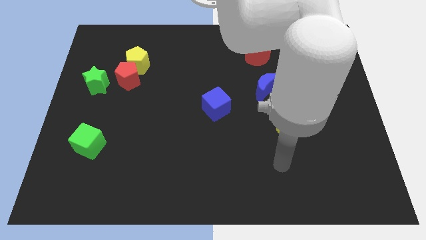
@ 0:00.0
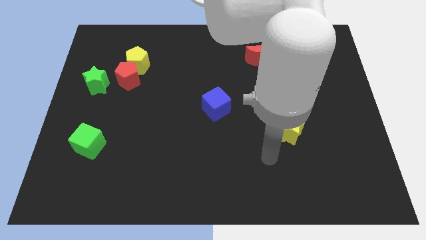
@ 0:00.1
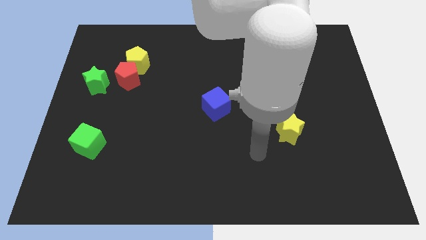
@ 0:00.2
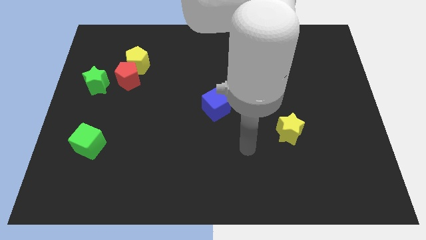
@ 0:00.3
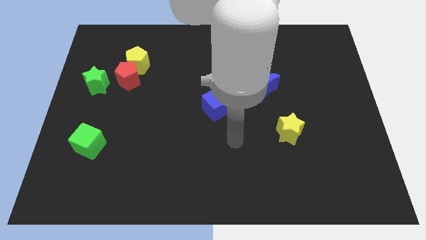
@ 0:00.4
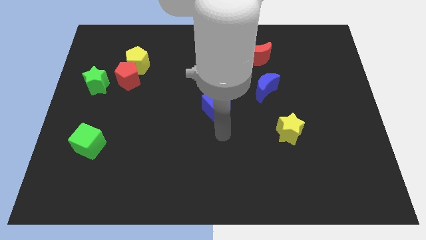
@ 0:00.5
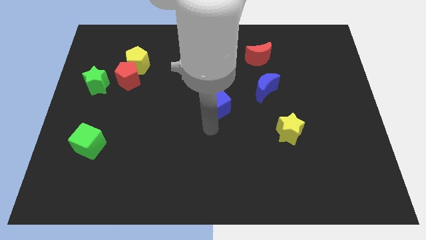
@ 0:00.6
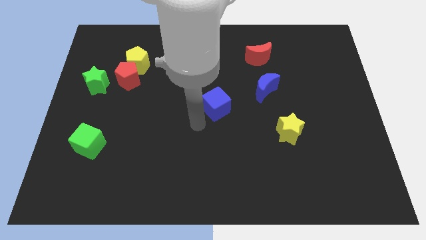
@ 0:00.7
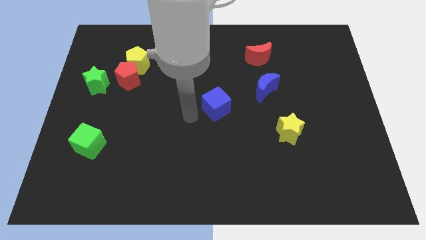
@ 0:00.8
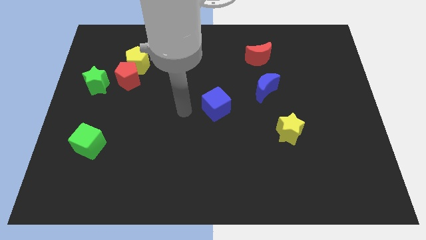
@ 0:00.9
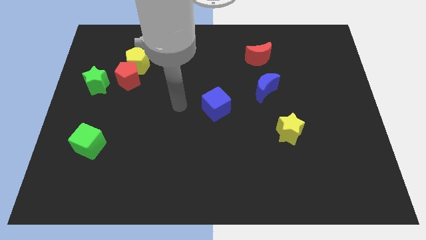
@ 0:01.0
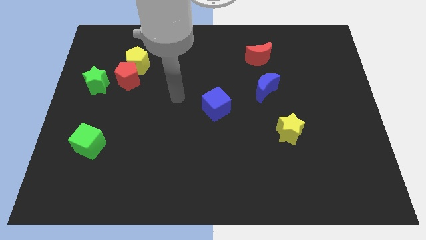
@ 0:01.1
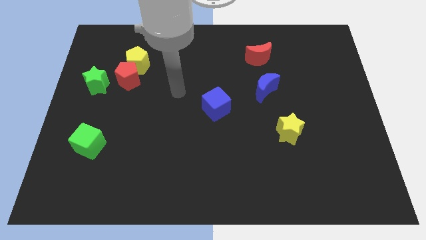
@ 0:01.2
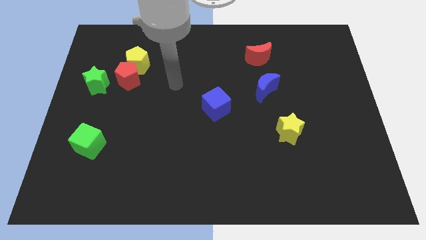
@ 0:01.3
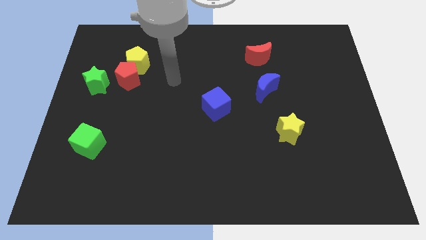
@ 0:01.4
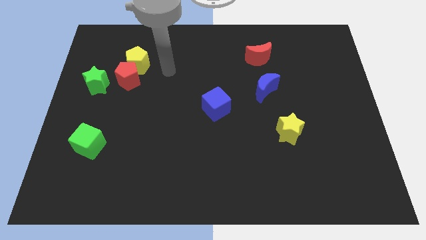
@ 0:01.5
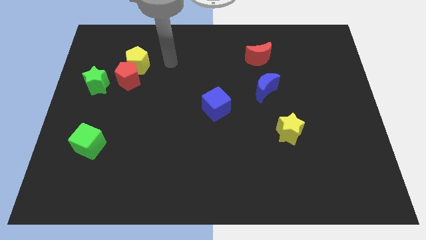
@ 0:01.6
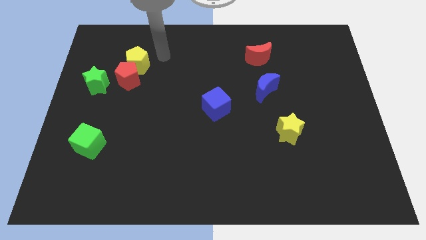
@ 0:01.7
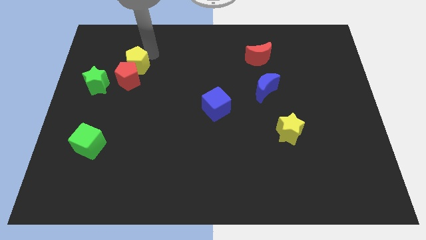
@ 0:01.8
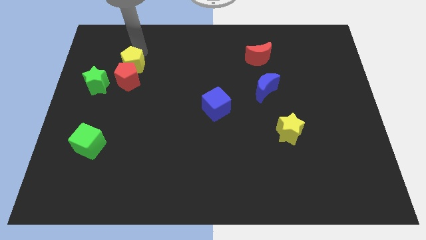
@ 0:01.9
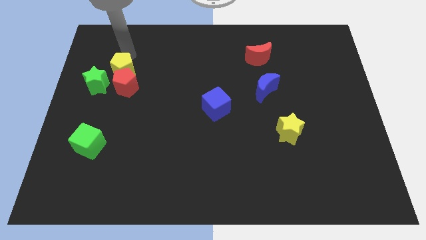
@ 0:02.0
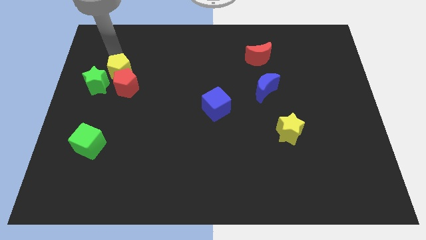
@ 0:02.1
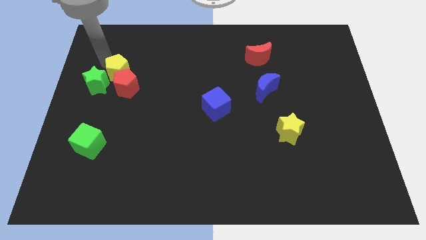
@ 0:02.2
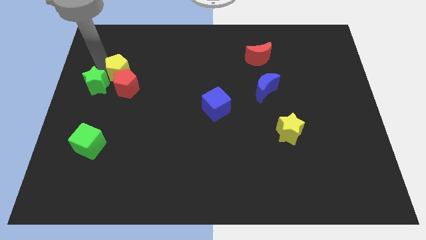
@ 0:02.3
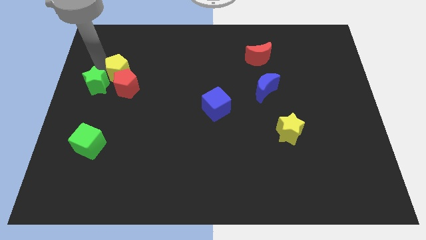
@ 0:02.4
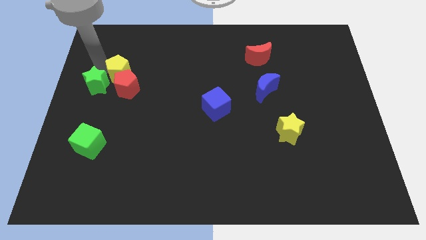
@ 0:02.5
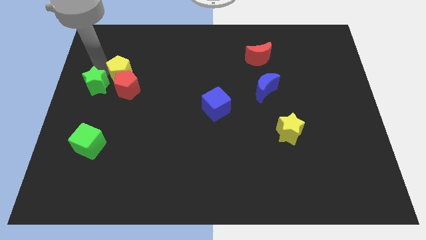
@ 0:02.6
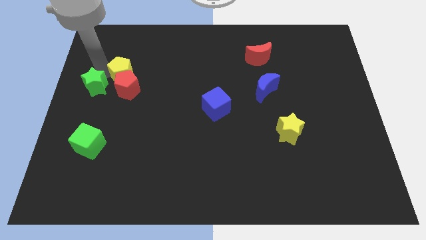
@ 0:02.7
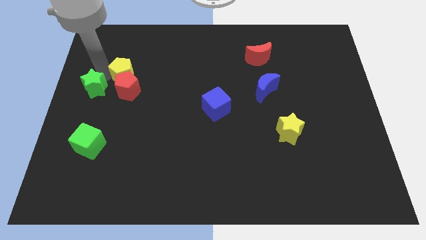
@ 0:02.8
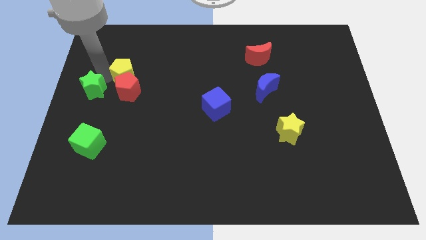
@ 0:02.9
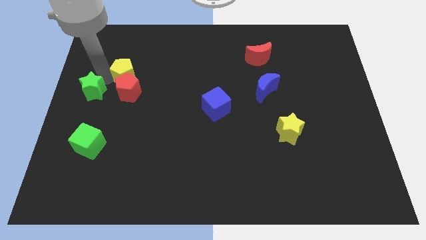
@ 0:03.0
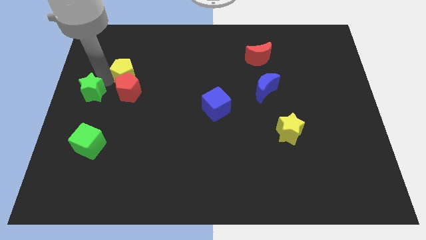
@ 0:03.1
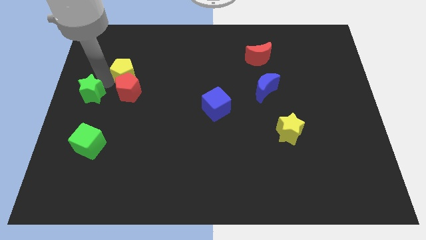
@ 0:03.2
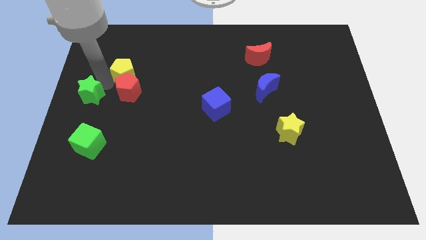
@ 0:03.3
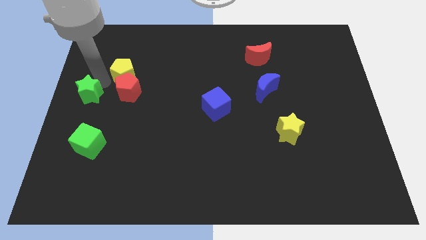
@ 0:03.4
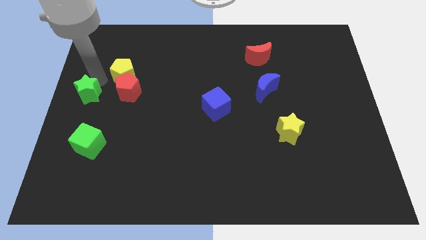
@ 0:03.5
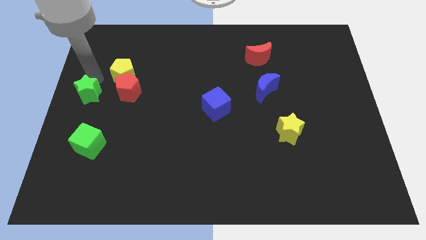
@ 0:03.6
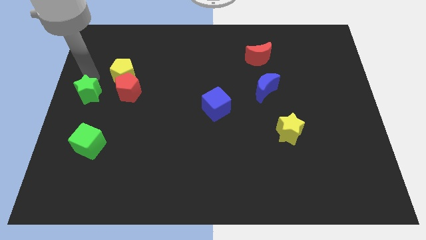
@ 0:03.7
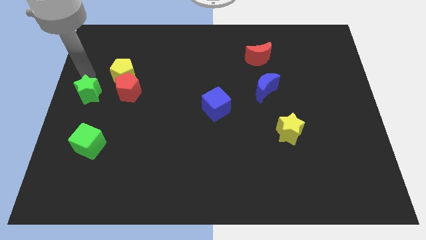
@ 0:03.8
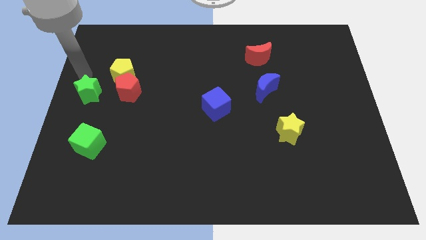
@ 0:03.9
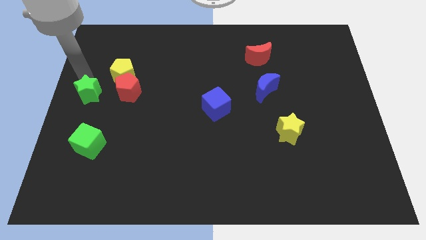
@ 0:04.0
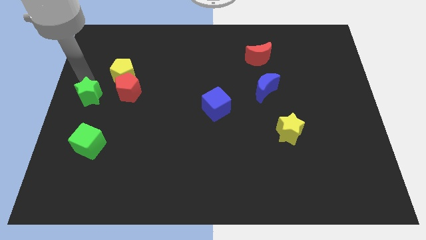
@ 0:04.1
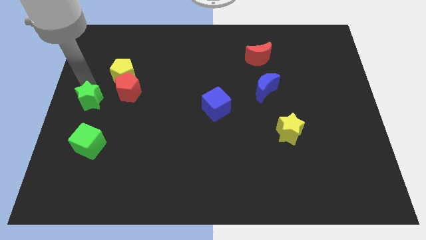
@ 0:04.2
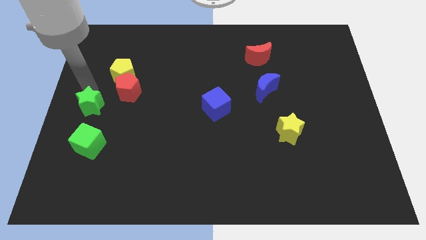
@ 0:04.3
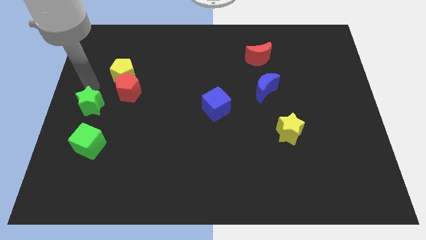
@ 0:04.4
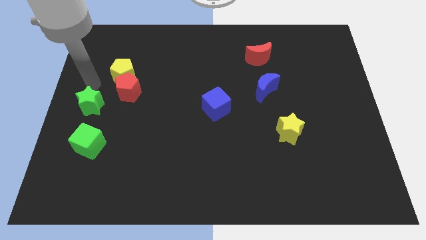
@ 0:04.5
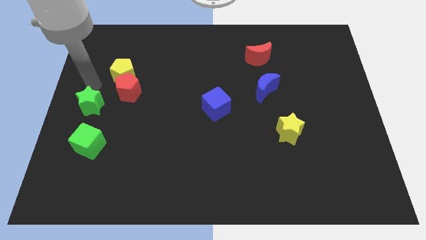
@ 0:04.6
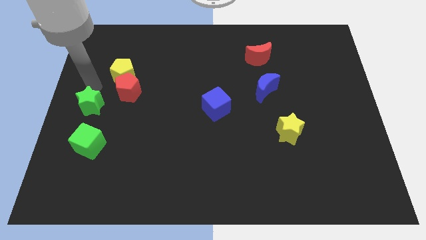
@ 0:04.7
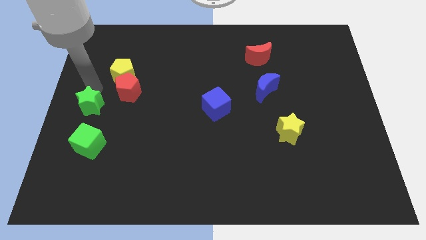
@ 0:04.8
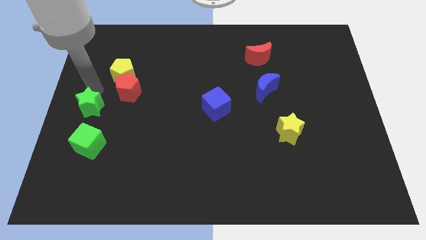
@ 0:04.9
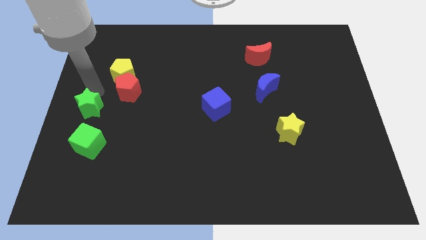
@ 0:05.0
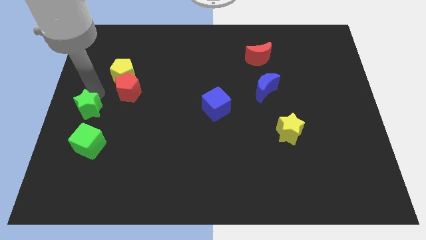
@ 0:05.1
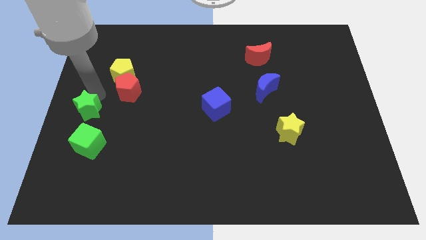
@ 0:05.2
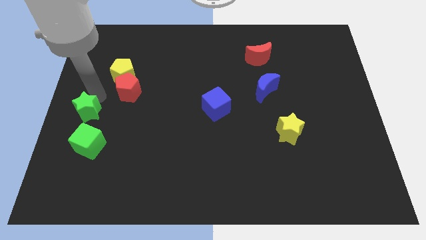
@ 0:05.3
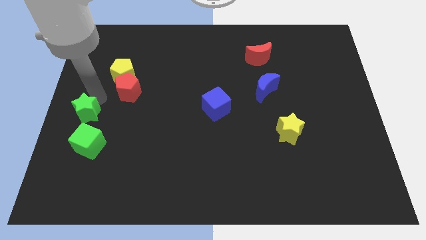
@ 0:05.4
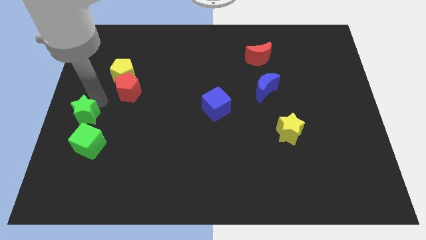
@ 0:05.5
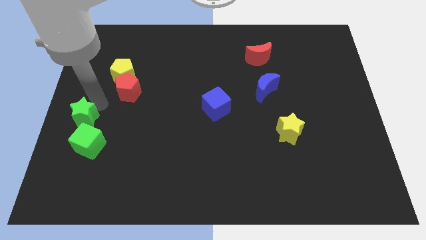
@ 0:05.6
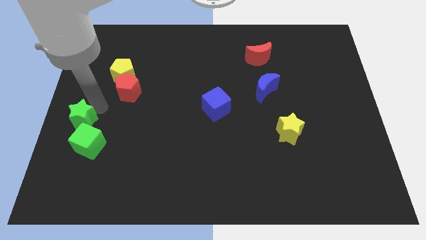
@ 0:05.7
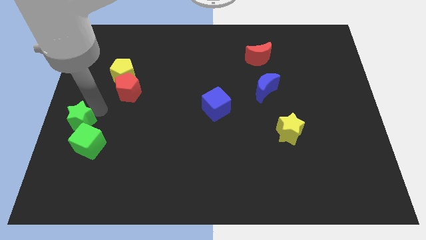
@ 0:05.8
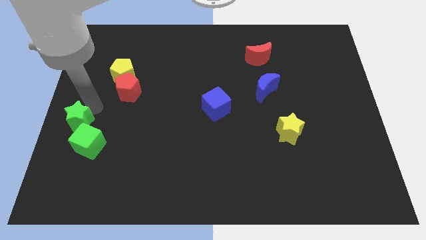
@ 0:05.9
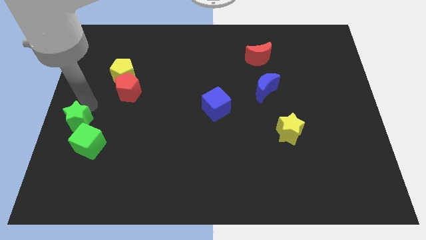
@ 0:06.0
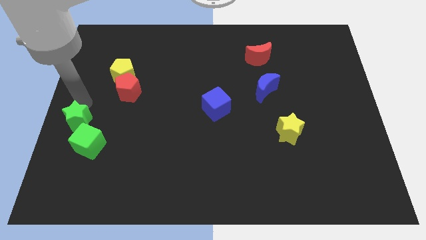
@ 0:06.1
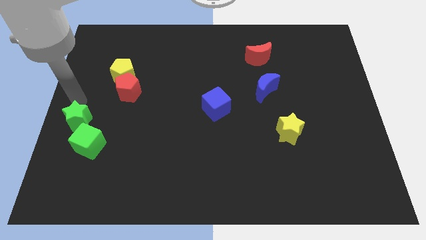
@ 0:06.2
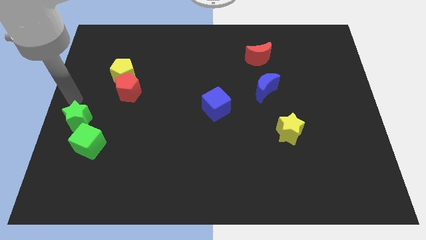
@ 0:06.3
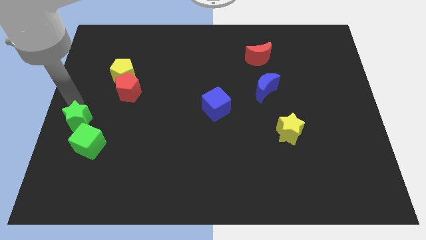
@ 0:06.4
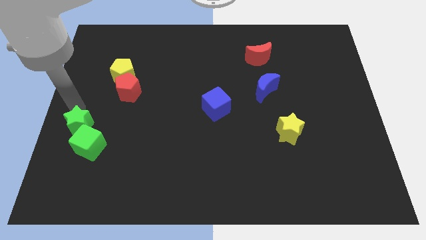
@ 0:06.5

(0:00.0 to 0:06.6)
put the green star towards the green cube
